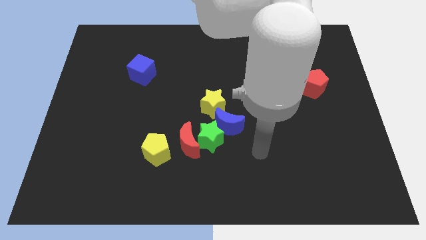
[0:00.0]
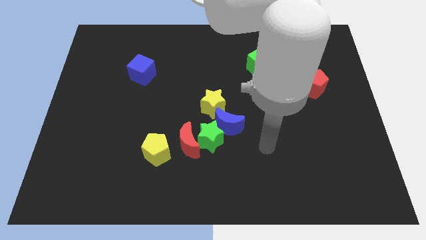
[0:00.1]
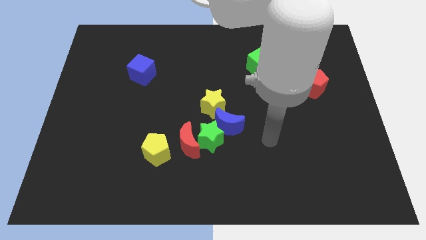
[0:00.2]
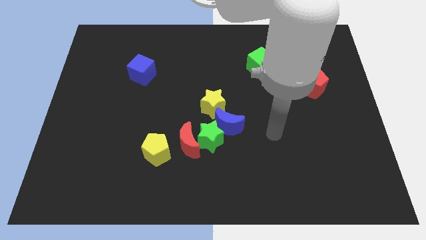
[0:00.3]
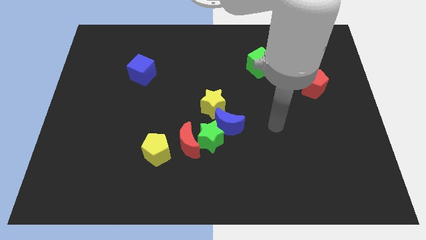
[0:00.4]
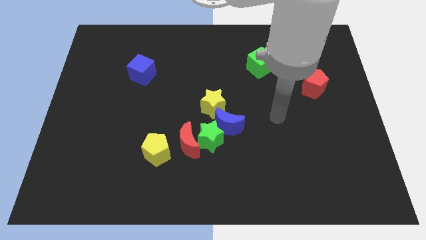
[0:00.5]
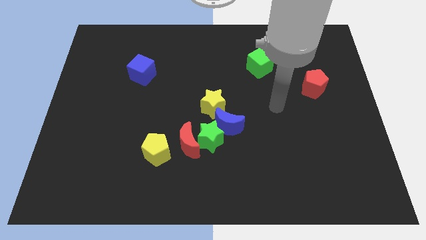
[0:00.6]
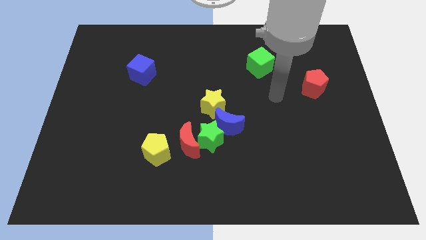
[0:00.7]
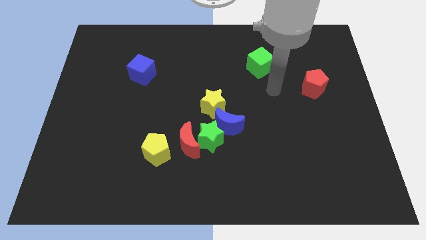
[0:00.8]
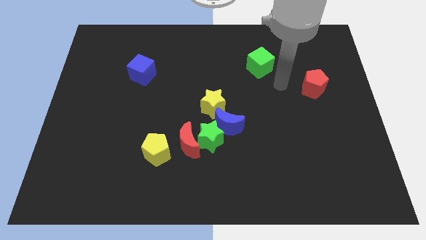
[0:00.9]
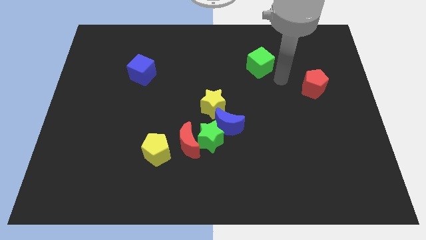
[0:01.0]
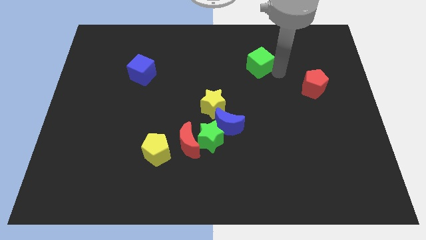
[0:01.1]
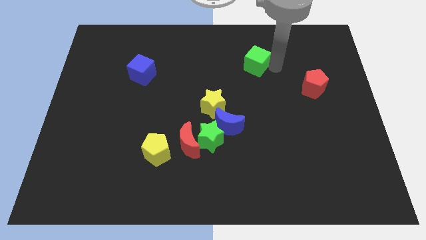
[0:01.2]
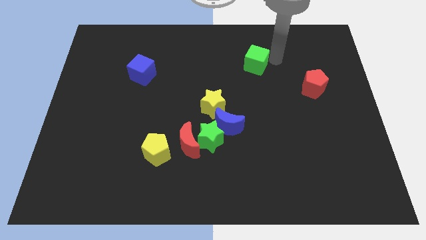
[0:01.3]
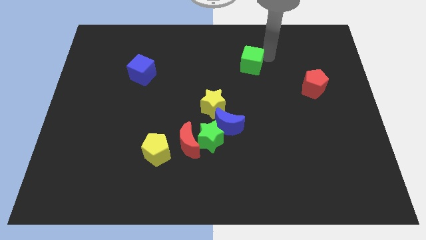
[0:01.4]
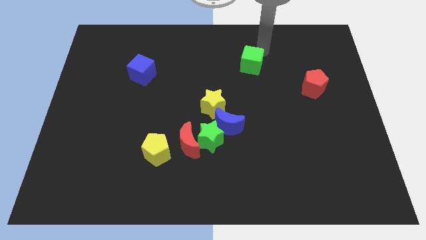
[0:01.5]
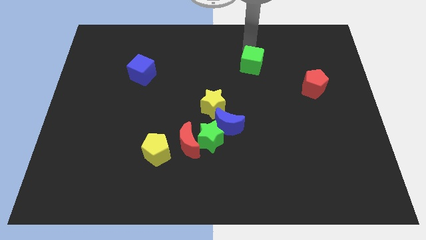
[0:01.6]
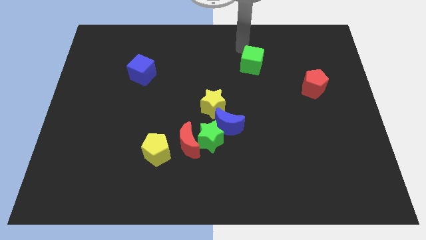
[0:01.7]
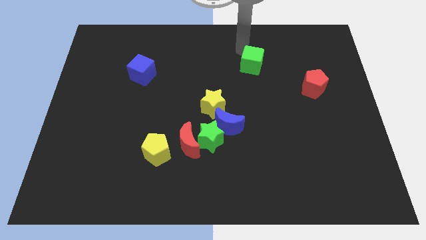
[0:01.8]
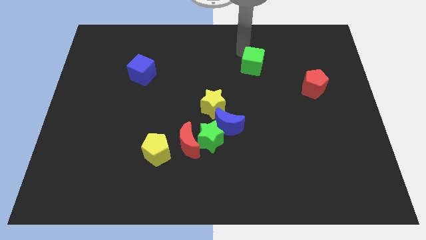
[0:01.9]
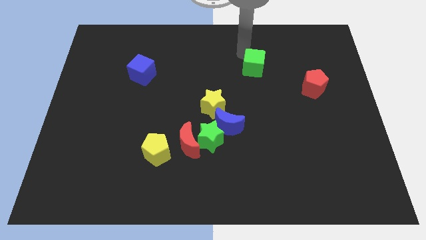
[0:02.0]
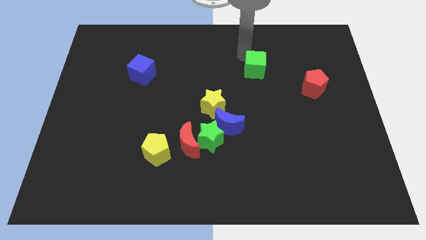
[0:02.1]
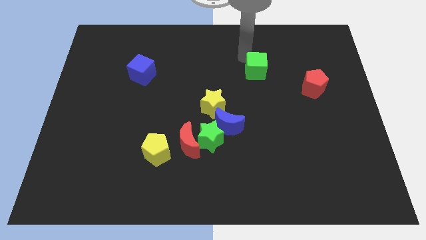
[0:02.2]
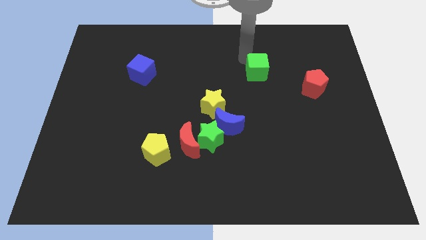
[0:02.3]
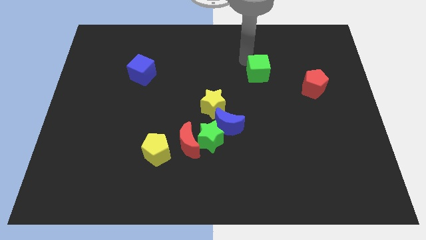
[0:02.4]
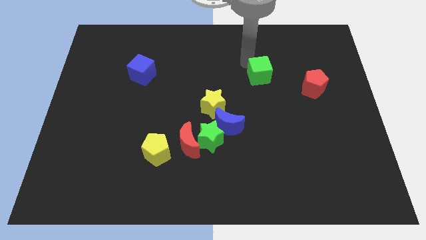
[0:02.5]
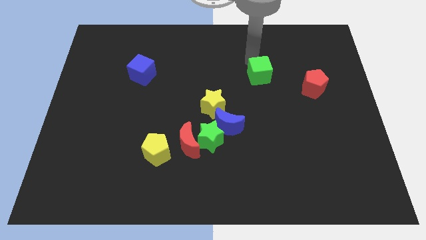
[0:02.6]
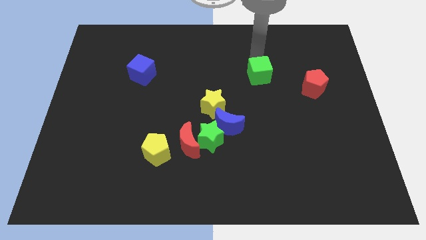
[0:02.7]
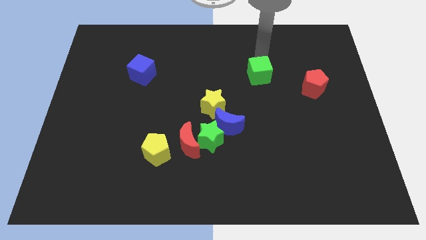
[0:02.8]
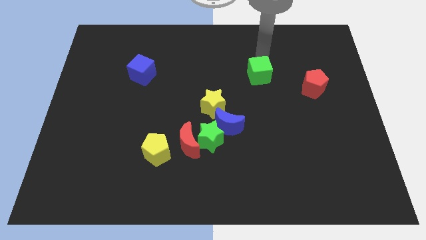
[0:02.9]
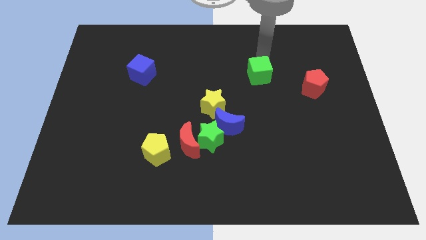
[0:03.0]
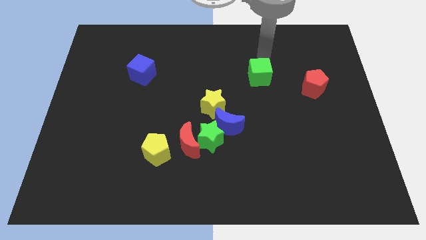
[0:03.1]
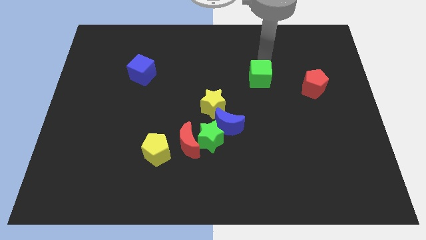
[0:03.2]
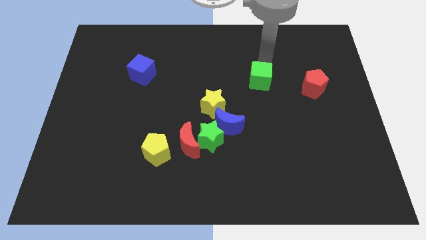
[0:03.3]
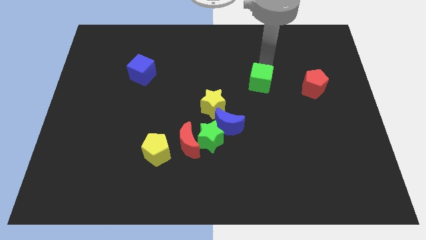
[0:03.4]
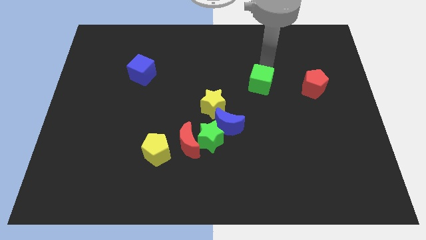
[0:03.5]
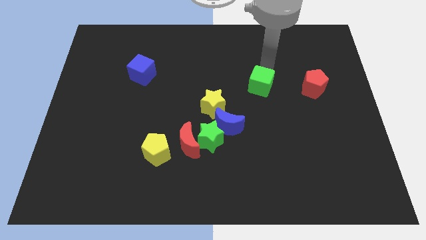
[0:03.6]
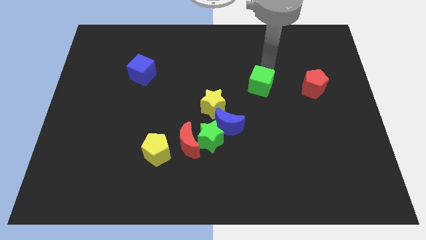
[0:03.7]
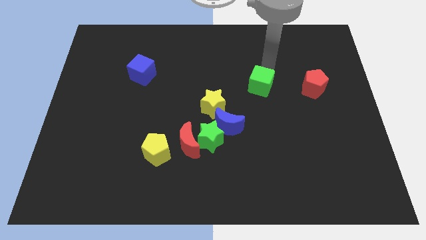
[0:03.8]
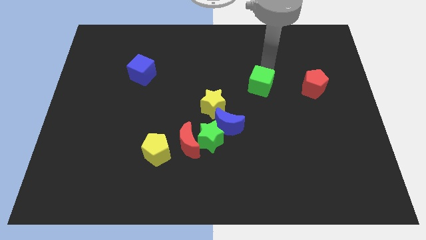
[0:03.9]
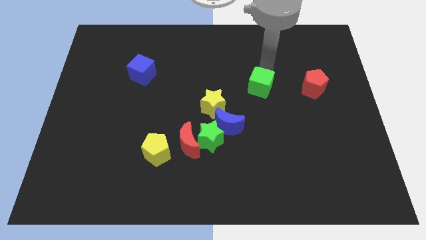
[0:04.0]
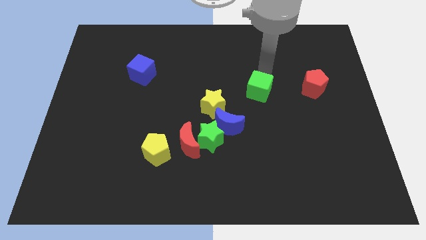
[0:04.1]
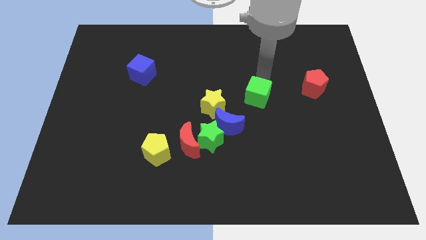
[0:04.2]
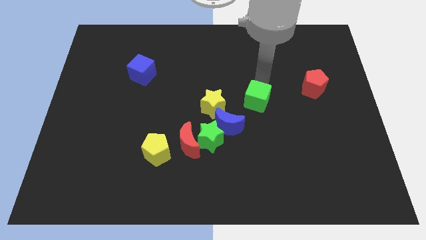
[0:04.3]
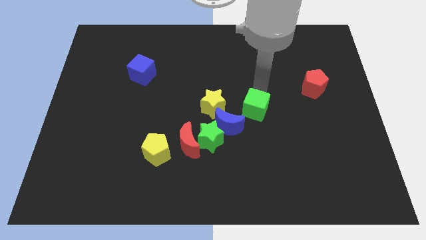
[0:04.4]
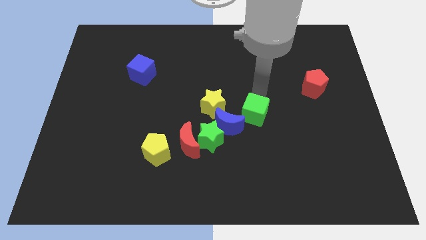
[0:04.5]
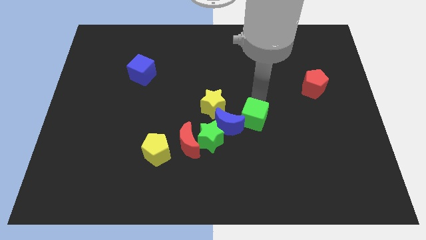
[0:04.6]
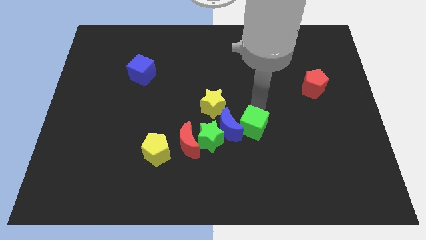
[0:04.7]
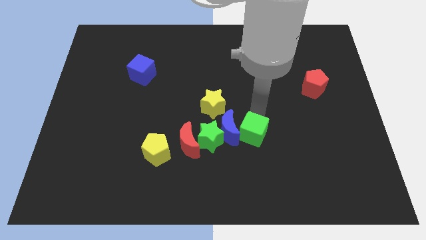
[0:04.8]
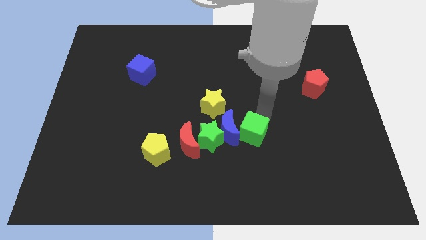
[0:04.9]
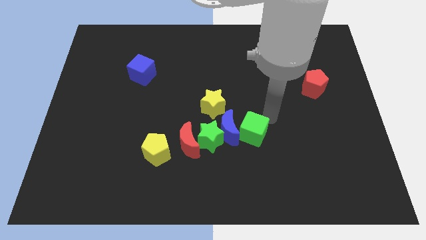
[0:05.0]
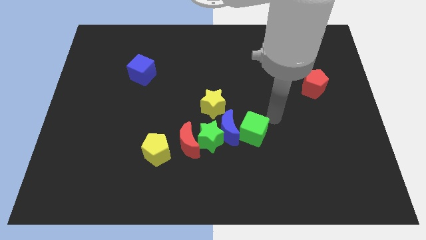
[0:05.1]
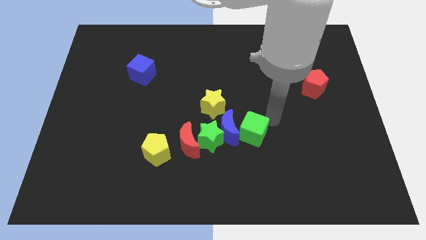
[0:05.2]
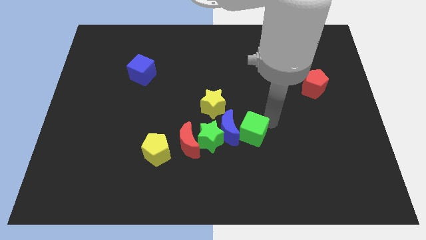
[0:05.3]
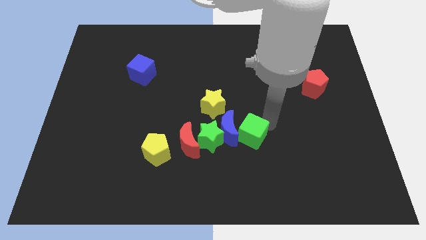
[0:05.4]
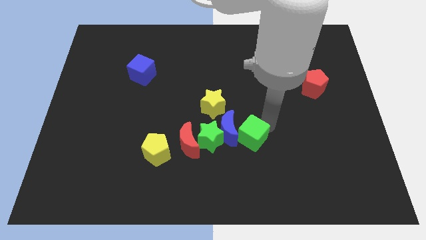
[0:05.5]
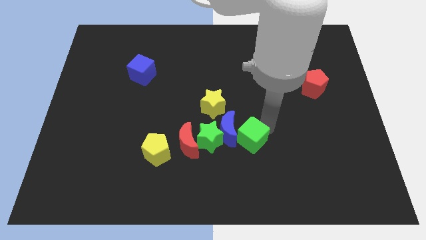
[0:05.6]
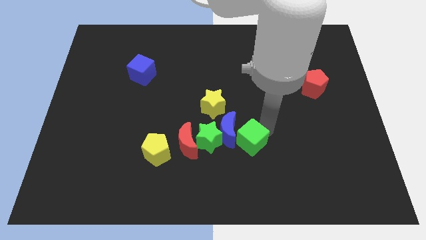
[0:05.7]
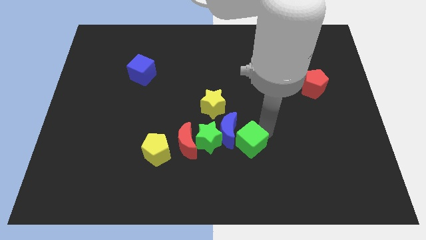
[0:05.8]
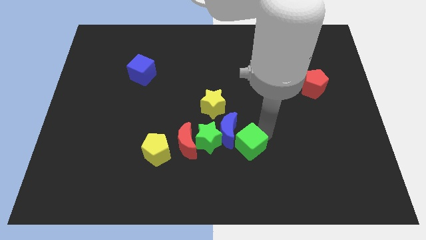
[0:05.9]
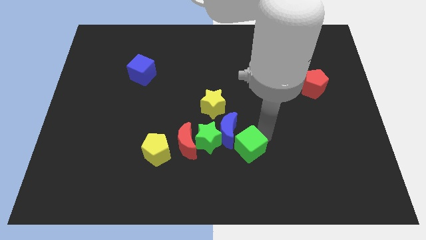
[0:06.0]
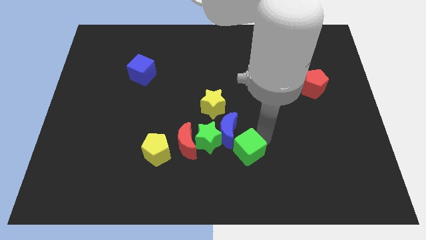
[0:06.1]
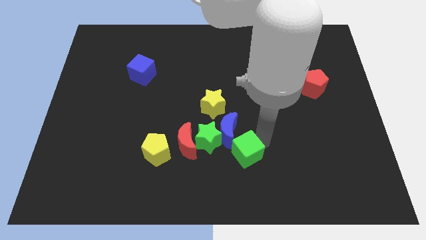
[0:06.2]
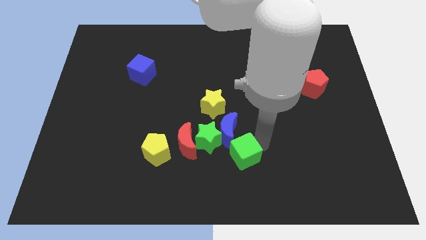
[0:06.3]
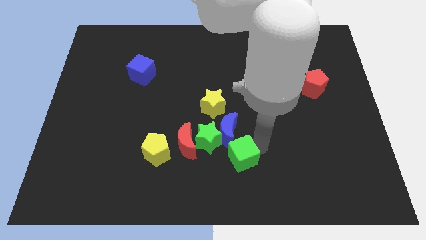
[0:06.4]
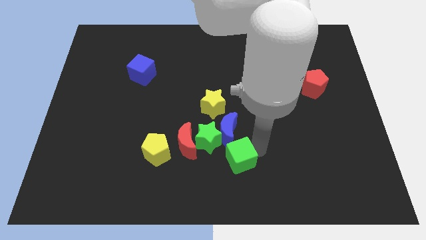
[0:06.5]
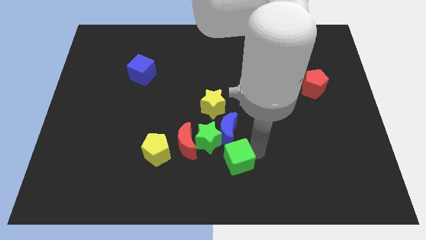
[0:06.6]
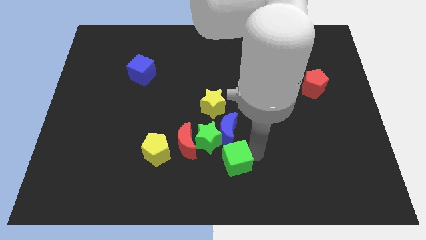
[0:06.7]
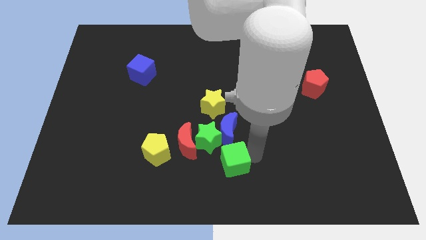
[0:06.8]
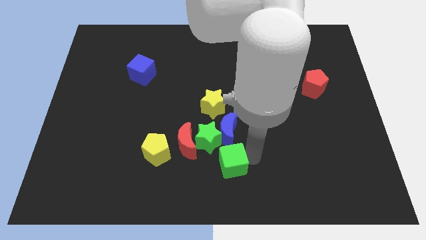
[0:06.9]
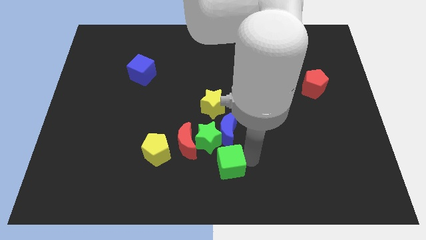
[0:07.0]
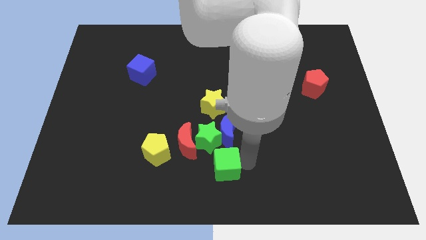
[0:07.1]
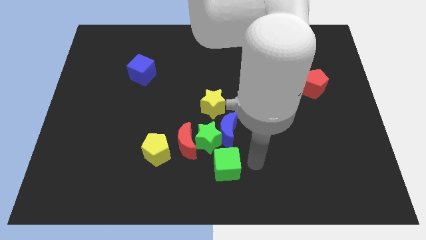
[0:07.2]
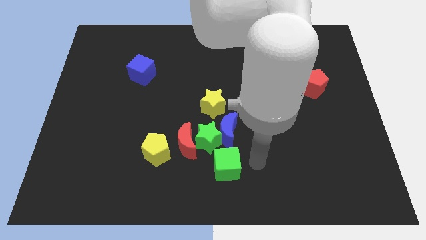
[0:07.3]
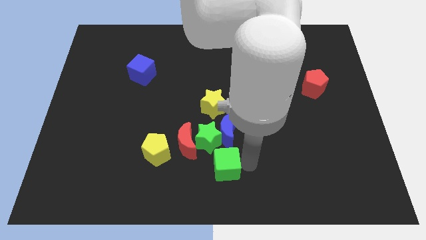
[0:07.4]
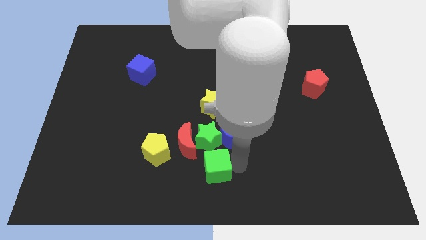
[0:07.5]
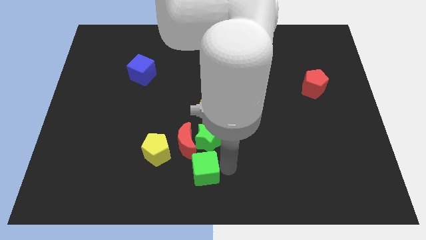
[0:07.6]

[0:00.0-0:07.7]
move the green cube to the bottom right of the yellow pentagon
